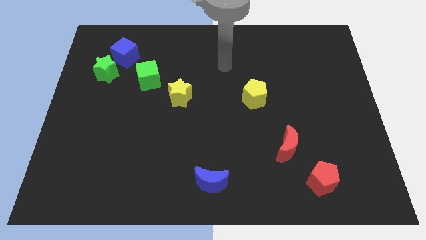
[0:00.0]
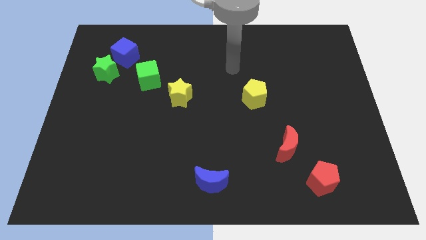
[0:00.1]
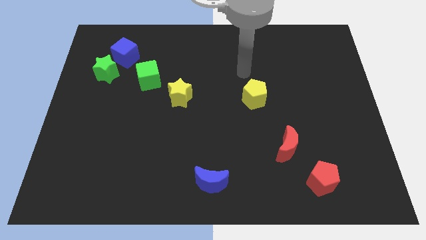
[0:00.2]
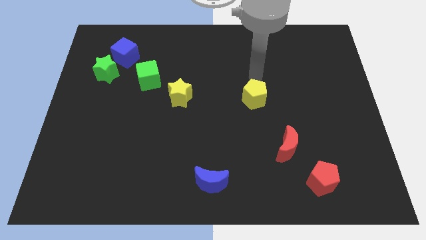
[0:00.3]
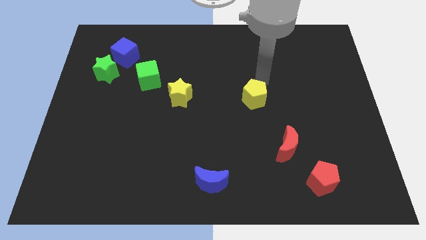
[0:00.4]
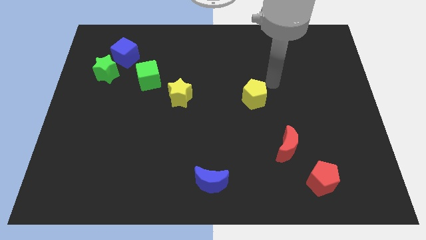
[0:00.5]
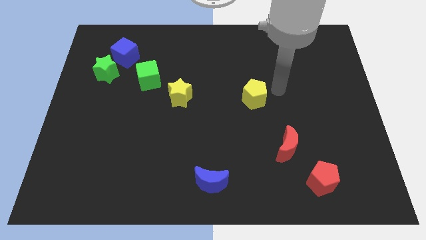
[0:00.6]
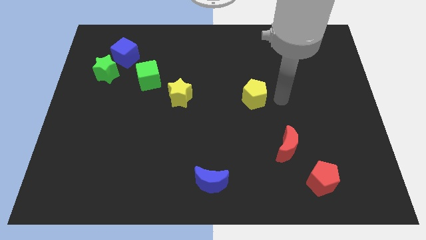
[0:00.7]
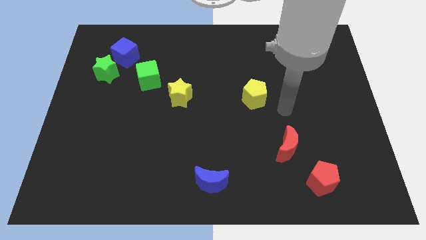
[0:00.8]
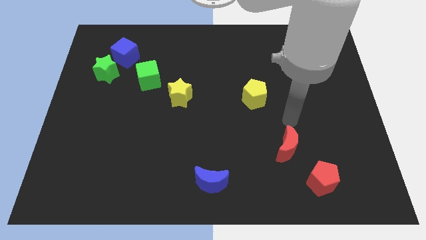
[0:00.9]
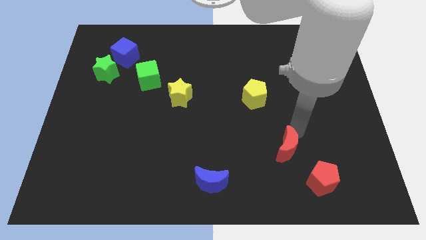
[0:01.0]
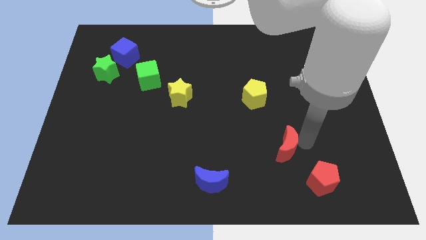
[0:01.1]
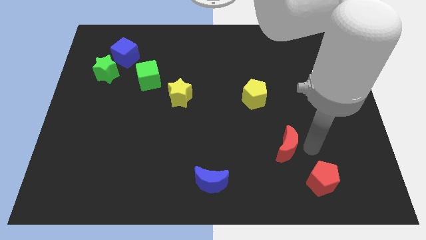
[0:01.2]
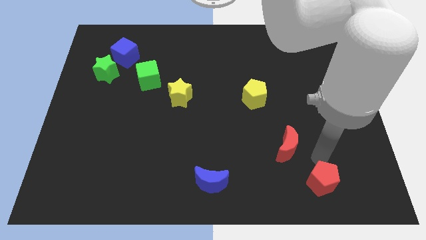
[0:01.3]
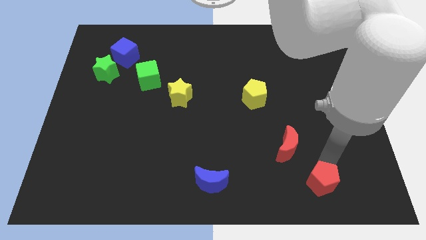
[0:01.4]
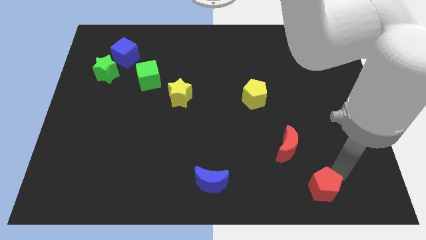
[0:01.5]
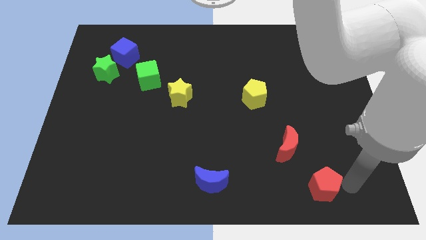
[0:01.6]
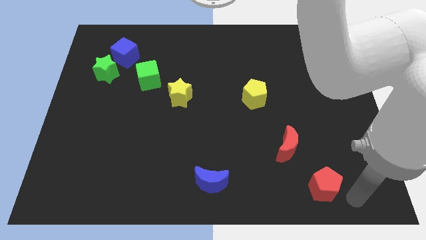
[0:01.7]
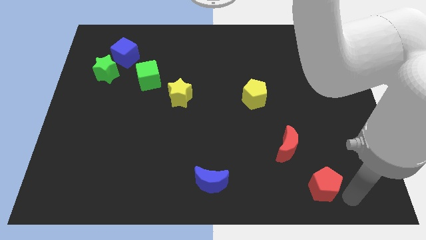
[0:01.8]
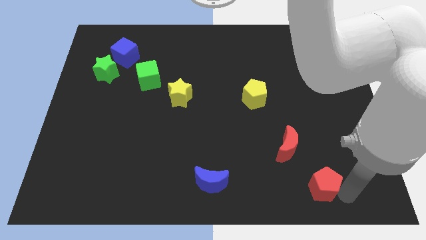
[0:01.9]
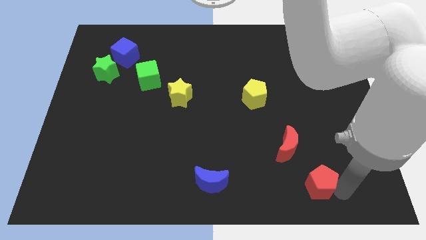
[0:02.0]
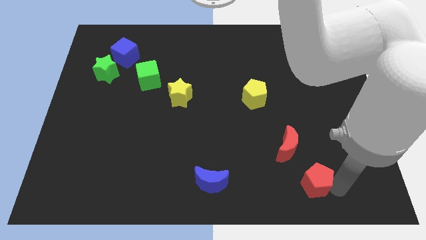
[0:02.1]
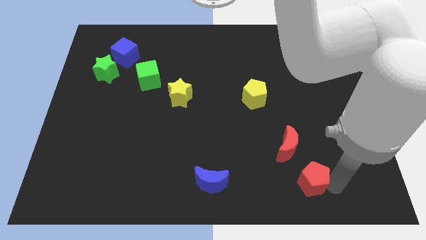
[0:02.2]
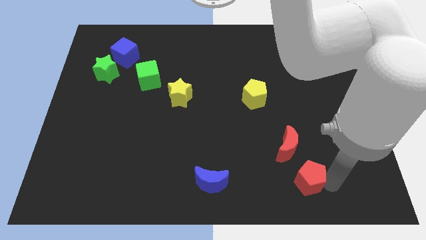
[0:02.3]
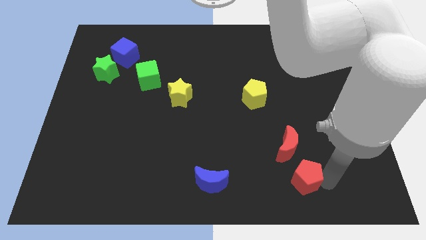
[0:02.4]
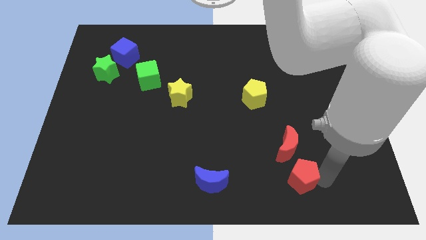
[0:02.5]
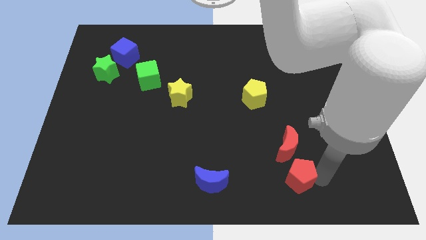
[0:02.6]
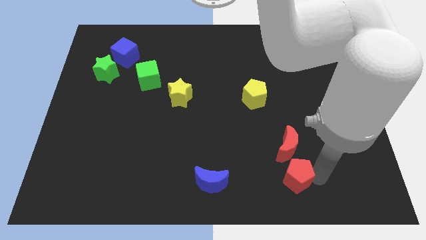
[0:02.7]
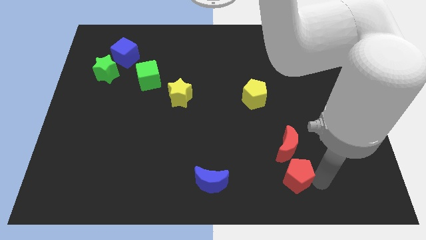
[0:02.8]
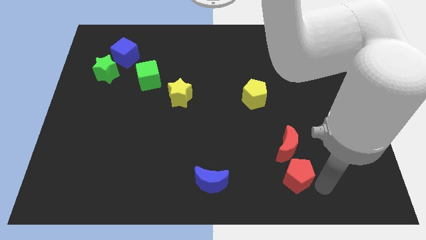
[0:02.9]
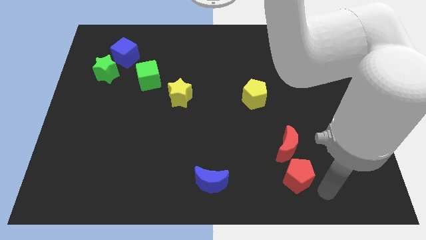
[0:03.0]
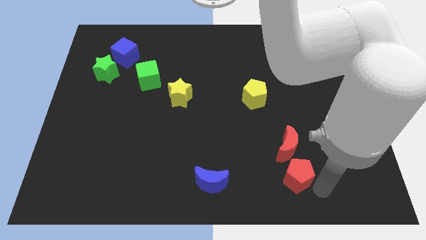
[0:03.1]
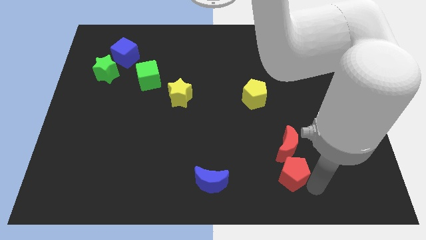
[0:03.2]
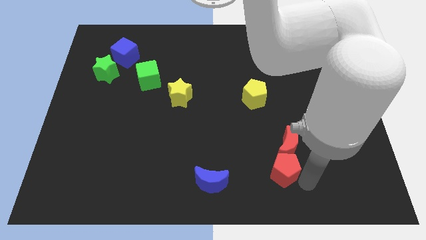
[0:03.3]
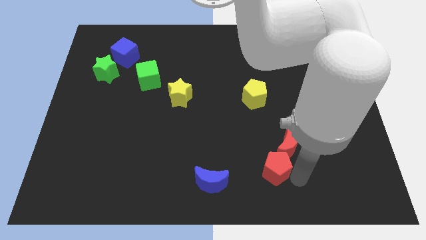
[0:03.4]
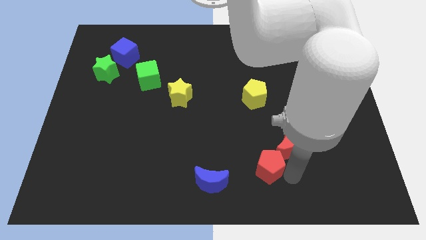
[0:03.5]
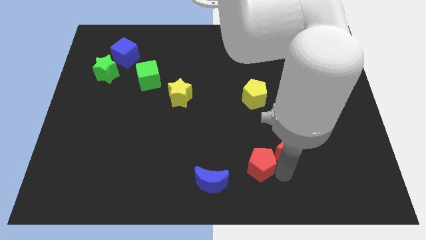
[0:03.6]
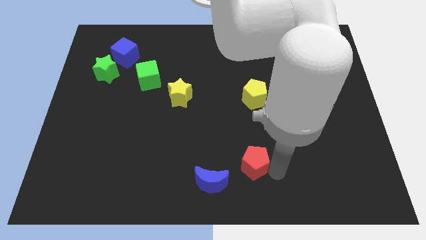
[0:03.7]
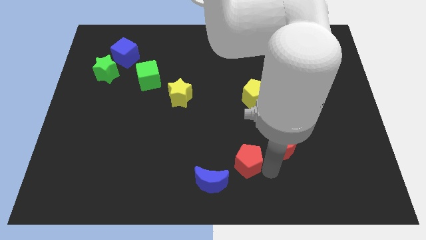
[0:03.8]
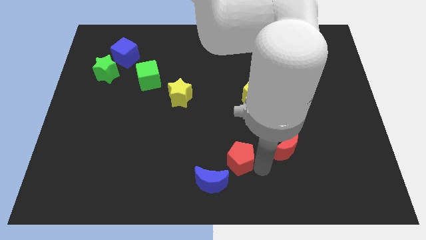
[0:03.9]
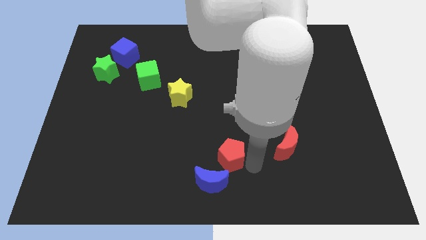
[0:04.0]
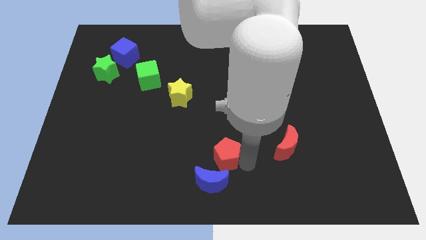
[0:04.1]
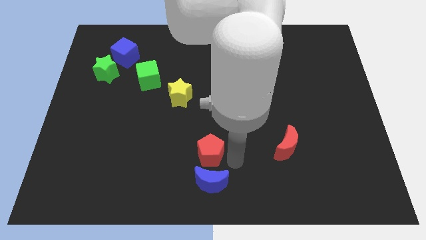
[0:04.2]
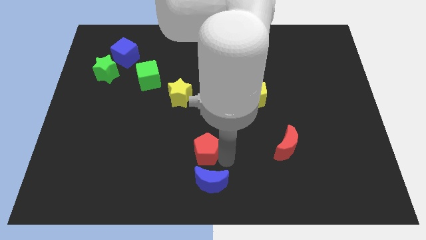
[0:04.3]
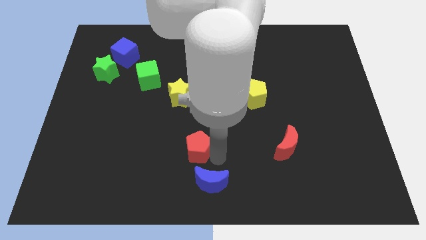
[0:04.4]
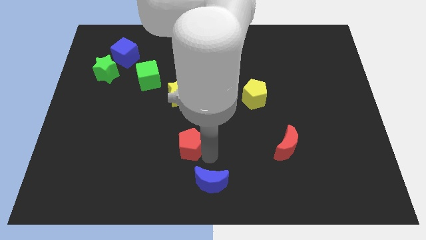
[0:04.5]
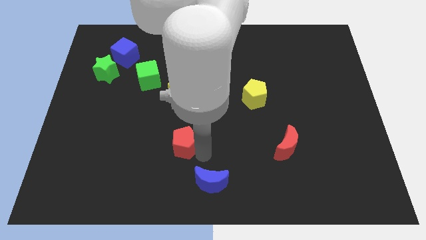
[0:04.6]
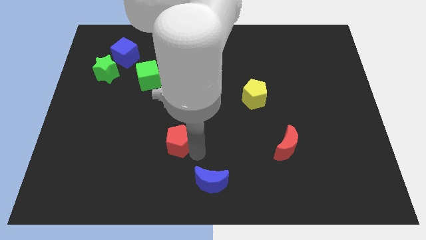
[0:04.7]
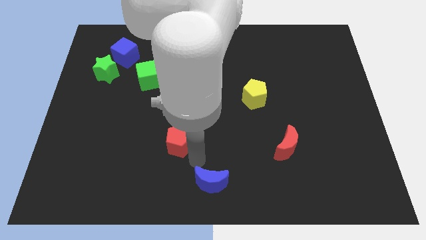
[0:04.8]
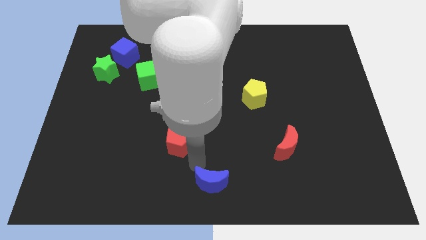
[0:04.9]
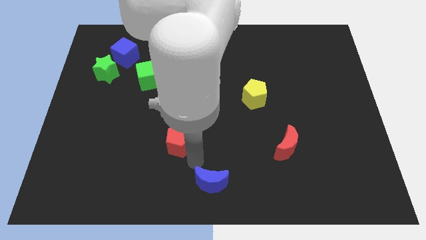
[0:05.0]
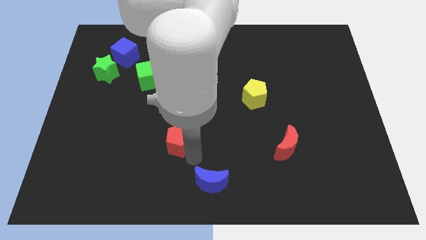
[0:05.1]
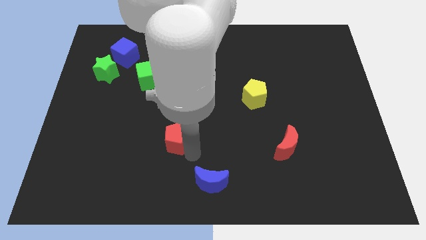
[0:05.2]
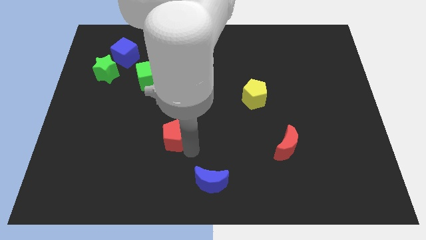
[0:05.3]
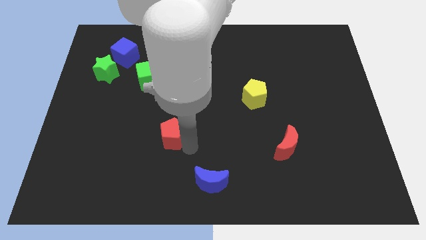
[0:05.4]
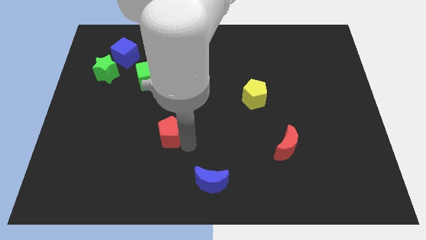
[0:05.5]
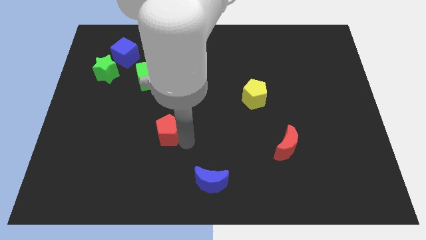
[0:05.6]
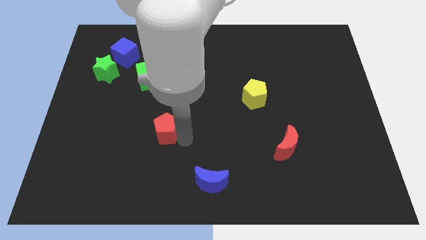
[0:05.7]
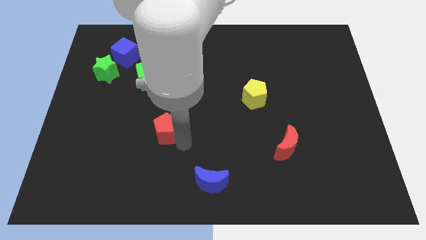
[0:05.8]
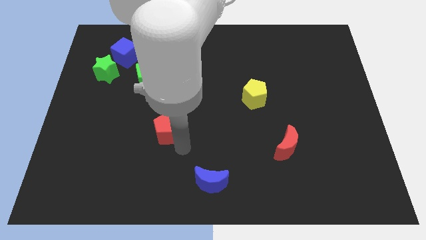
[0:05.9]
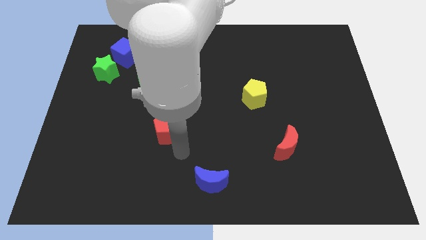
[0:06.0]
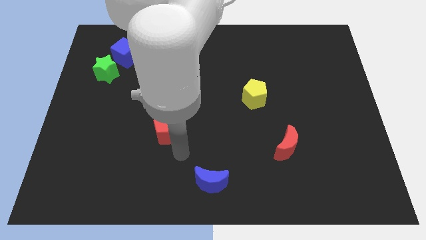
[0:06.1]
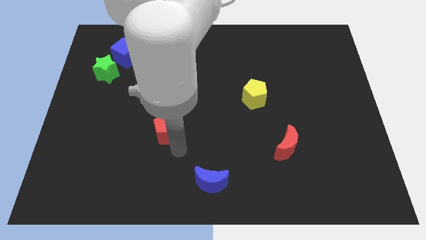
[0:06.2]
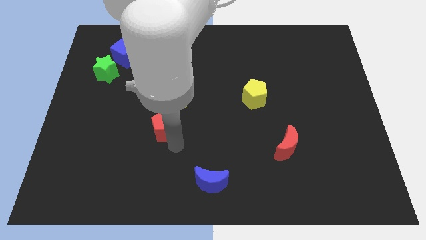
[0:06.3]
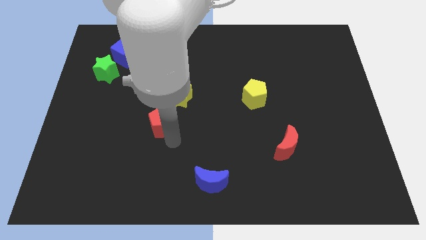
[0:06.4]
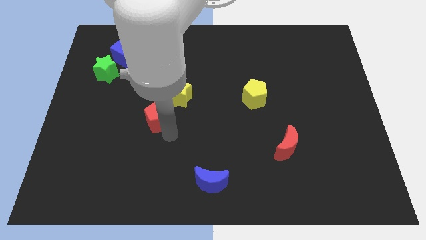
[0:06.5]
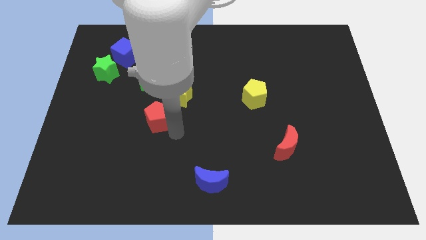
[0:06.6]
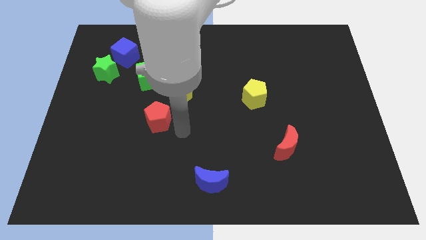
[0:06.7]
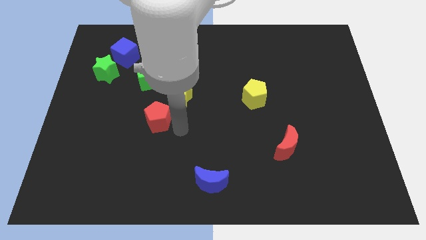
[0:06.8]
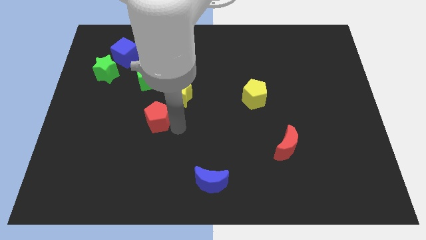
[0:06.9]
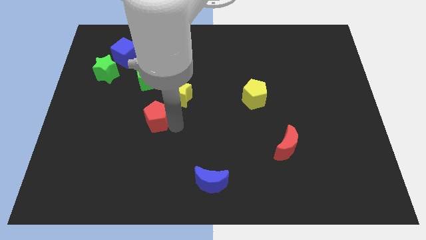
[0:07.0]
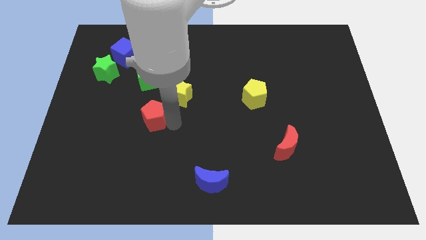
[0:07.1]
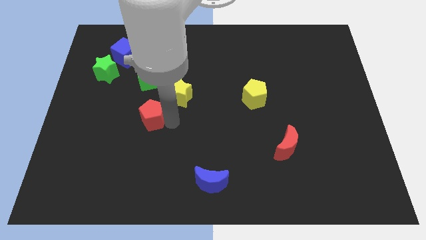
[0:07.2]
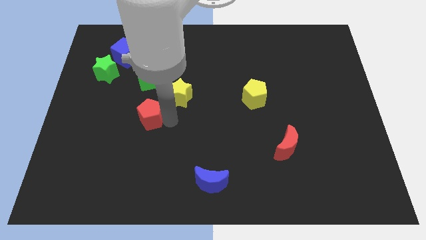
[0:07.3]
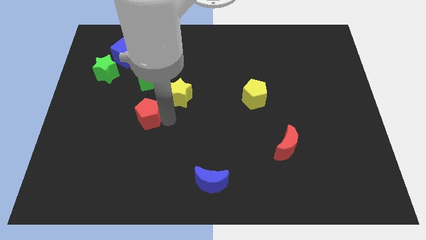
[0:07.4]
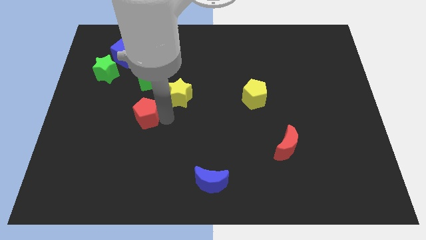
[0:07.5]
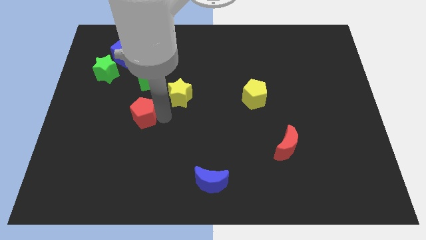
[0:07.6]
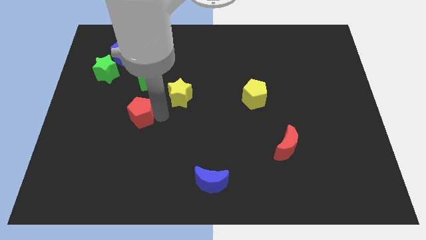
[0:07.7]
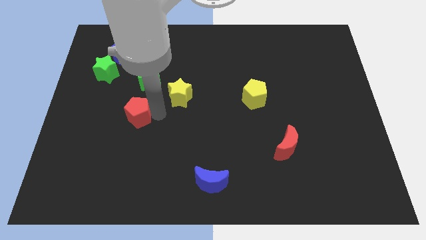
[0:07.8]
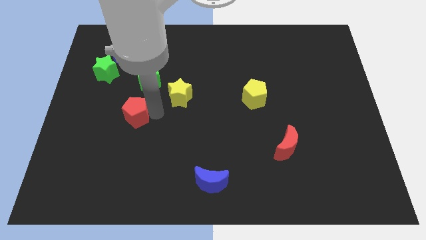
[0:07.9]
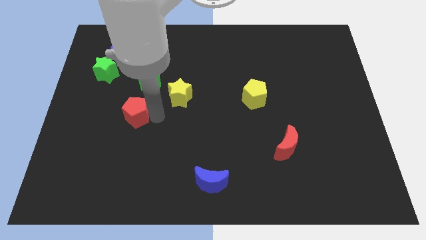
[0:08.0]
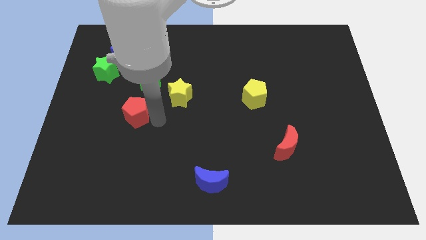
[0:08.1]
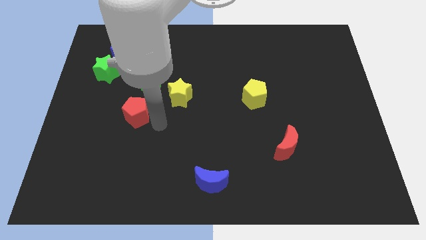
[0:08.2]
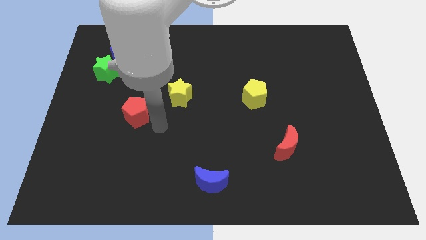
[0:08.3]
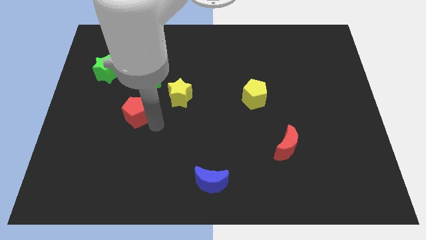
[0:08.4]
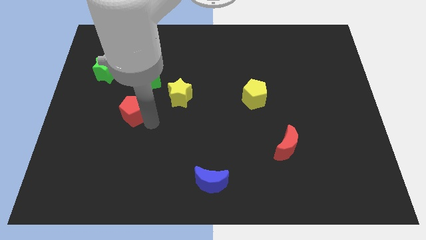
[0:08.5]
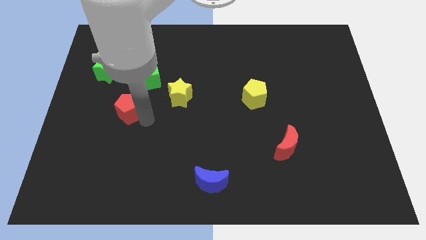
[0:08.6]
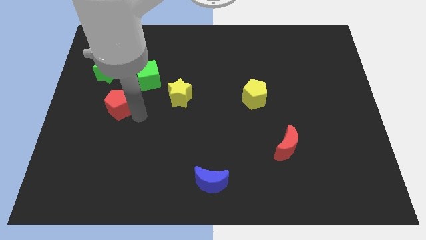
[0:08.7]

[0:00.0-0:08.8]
move the red pentagon to the bottom side of the green star
